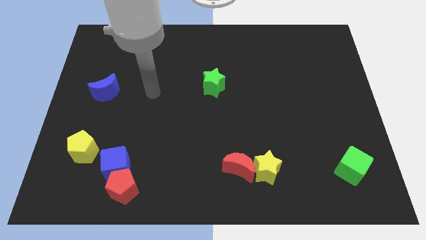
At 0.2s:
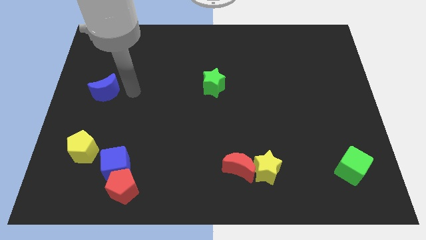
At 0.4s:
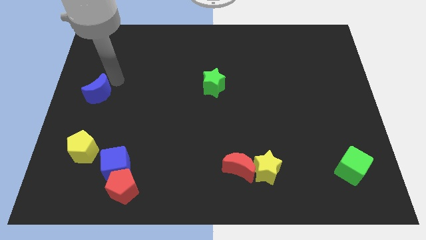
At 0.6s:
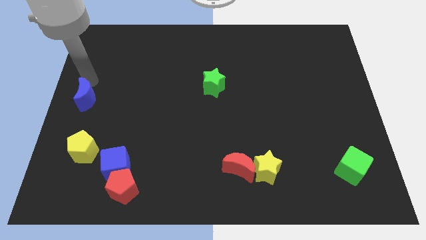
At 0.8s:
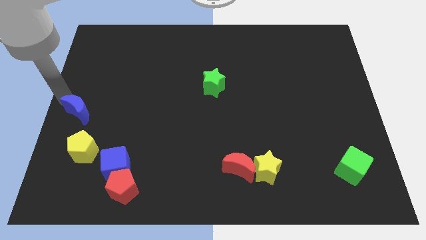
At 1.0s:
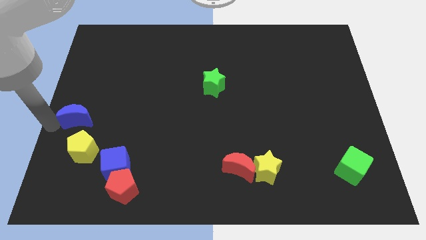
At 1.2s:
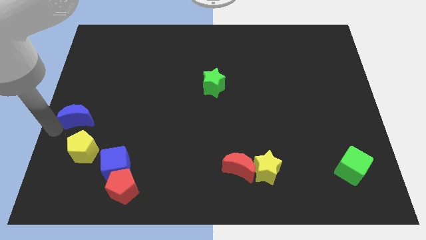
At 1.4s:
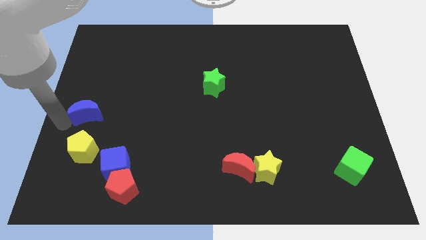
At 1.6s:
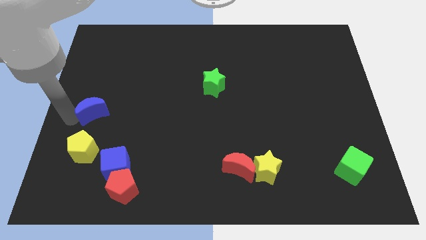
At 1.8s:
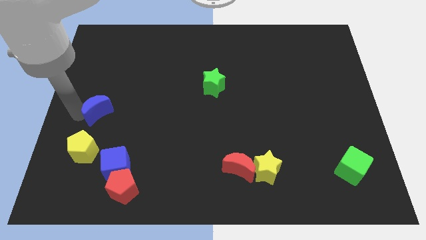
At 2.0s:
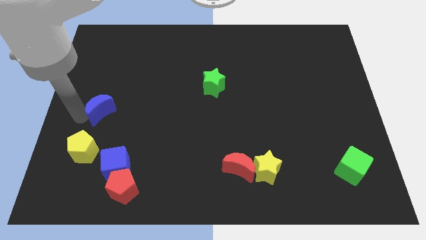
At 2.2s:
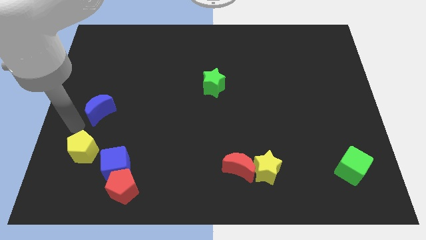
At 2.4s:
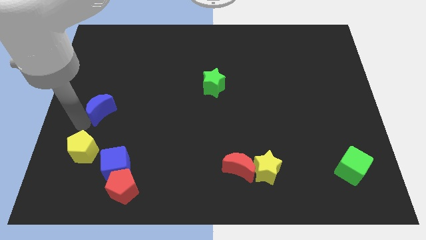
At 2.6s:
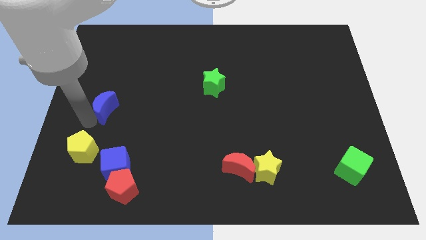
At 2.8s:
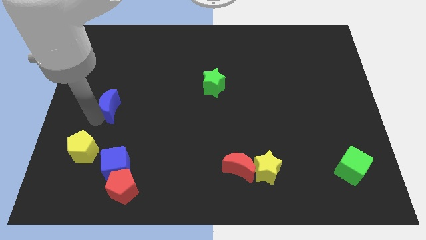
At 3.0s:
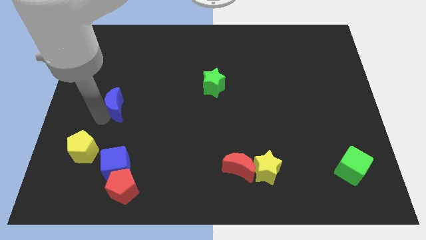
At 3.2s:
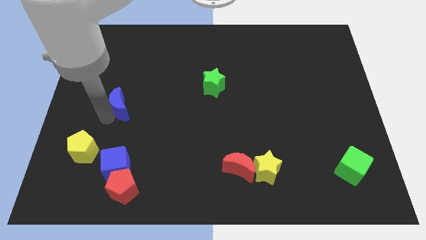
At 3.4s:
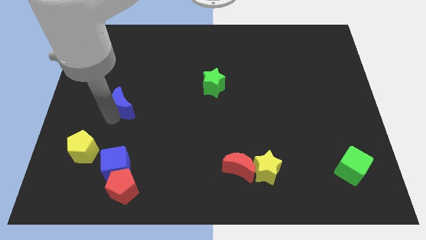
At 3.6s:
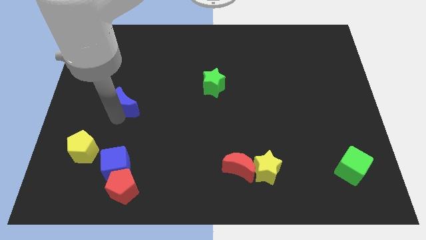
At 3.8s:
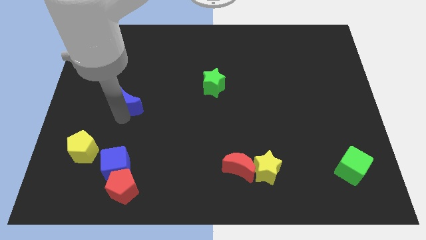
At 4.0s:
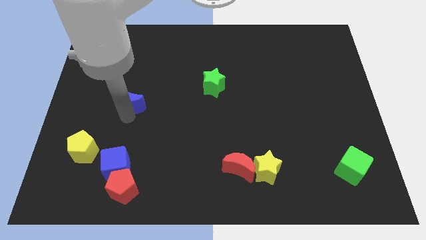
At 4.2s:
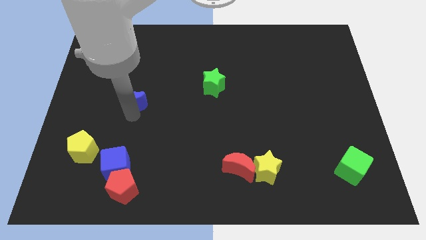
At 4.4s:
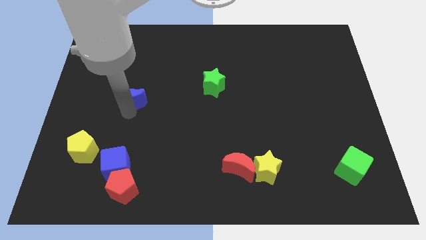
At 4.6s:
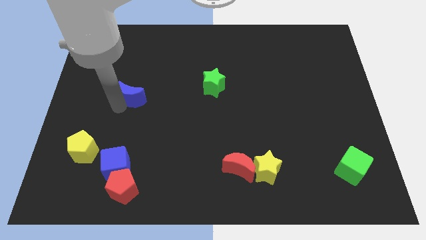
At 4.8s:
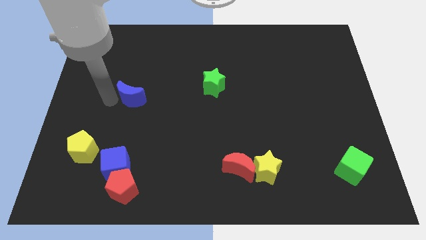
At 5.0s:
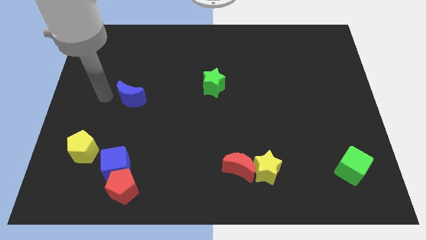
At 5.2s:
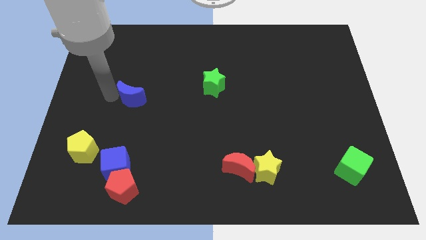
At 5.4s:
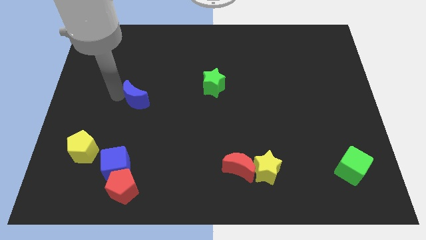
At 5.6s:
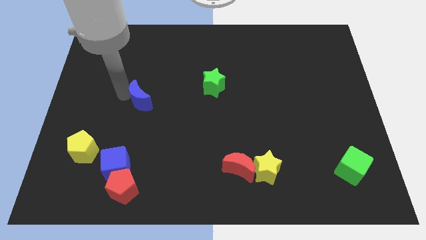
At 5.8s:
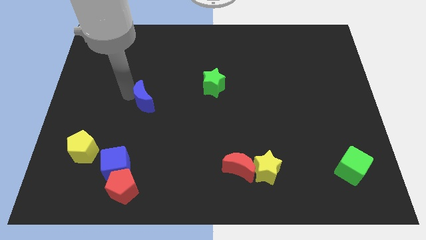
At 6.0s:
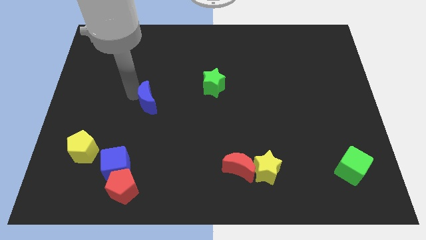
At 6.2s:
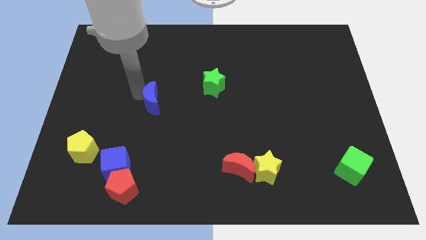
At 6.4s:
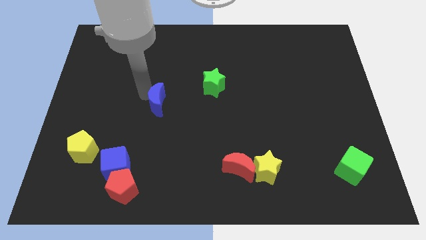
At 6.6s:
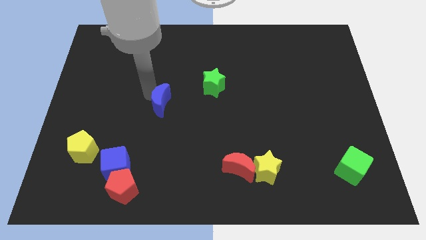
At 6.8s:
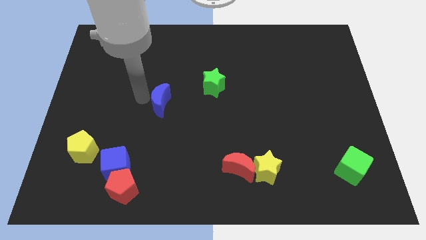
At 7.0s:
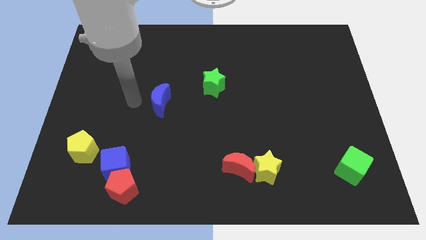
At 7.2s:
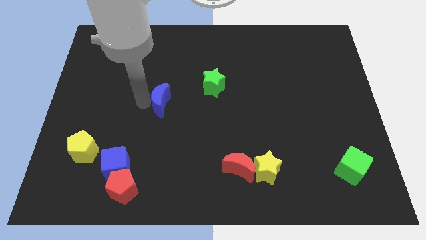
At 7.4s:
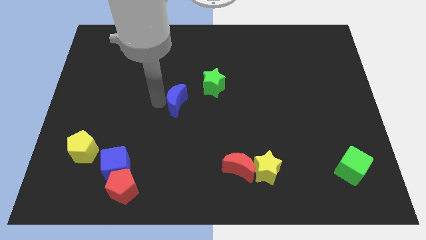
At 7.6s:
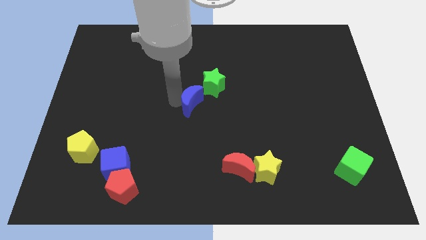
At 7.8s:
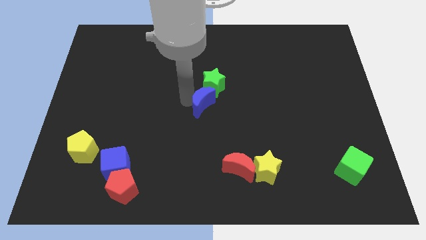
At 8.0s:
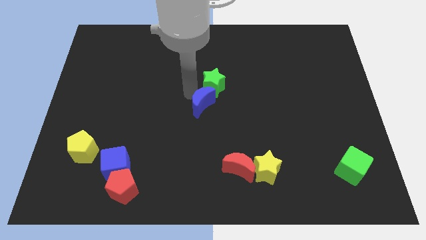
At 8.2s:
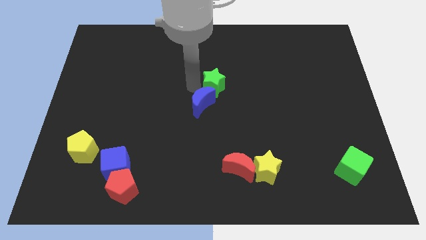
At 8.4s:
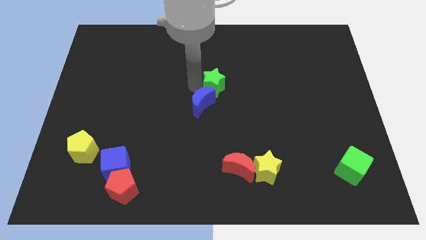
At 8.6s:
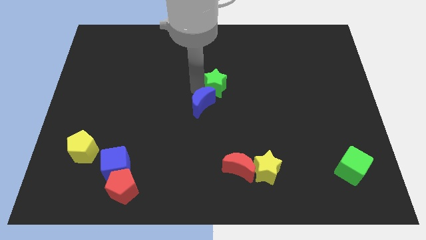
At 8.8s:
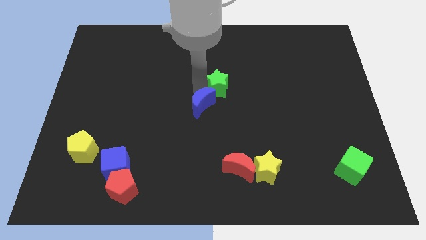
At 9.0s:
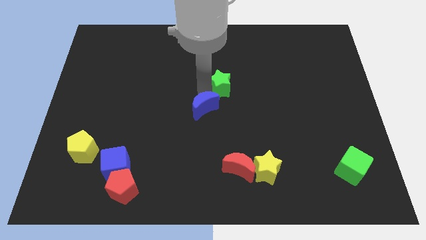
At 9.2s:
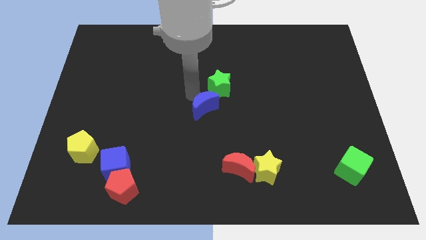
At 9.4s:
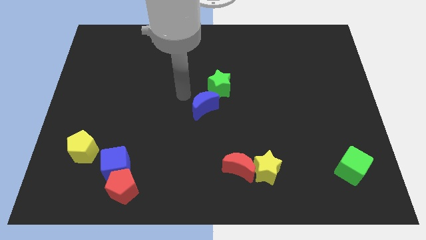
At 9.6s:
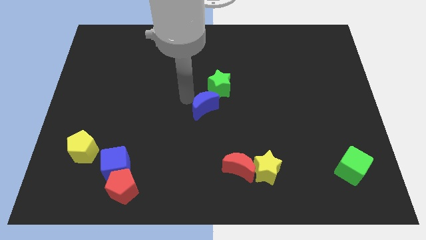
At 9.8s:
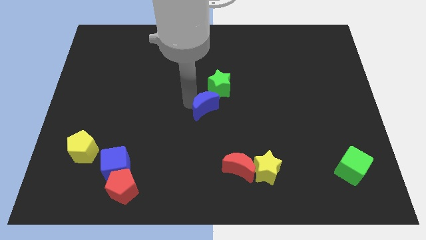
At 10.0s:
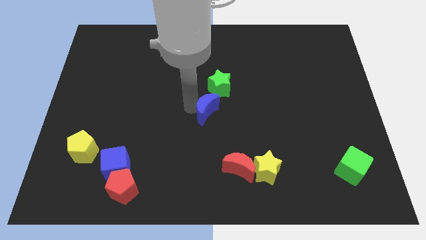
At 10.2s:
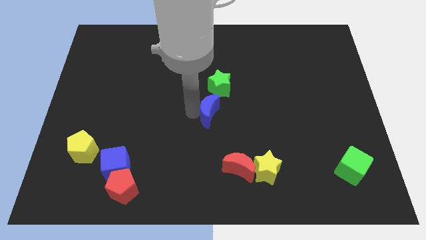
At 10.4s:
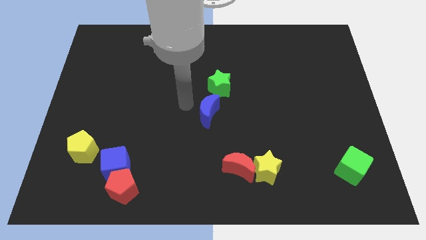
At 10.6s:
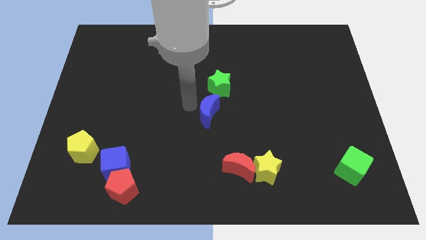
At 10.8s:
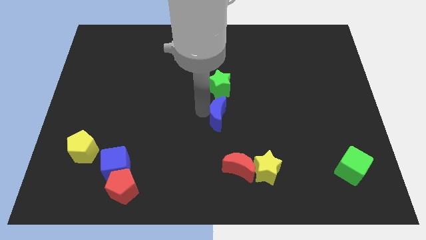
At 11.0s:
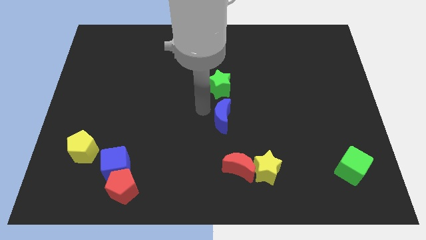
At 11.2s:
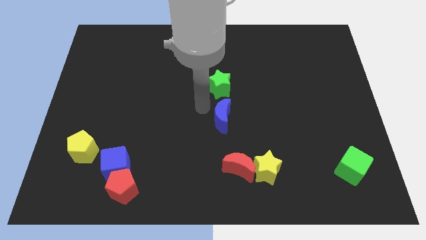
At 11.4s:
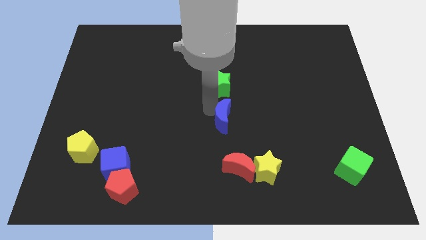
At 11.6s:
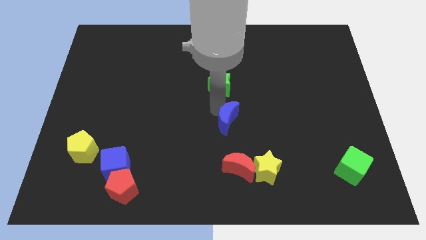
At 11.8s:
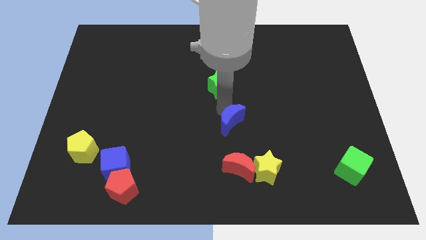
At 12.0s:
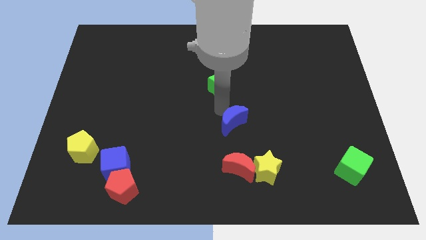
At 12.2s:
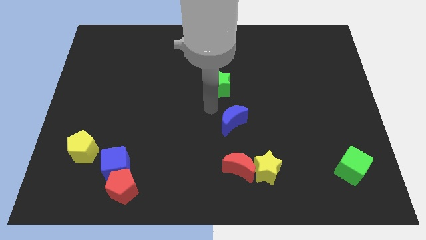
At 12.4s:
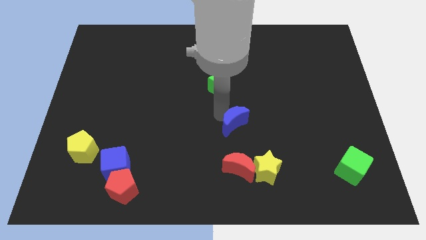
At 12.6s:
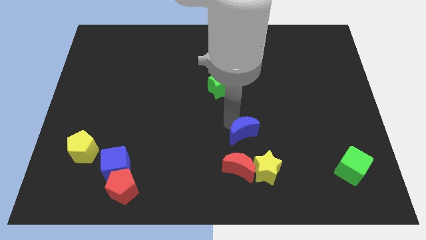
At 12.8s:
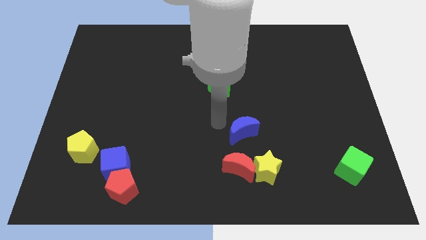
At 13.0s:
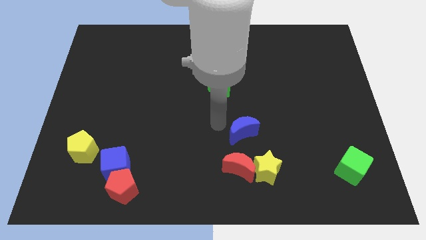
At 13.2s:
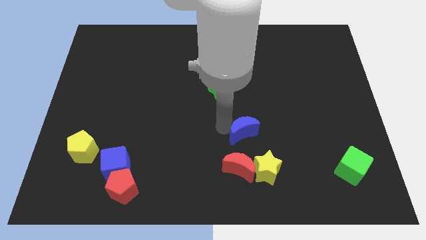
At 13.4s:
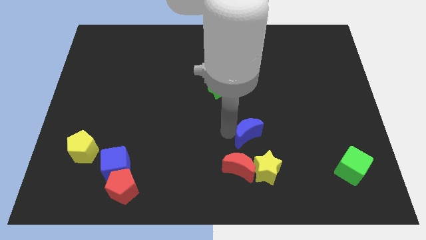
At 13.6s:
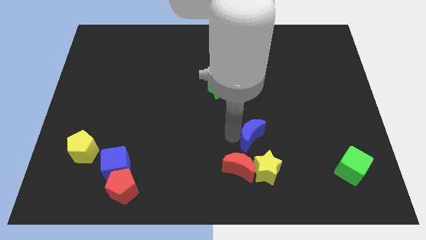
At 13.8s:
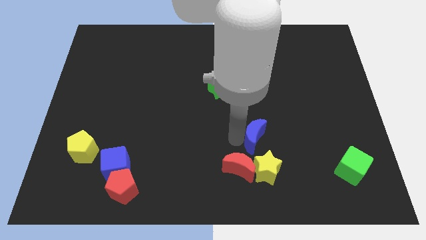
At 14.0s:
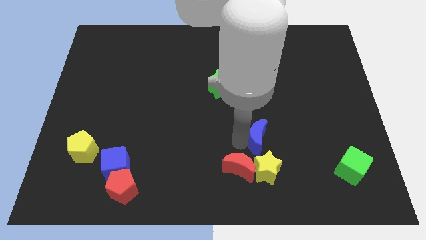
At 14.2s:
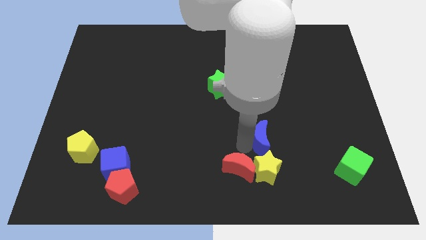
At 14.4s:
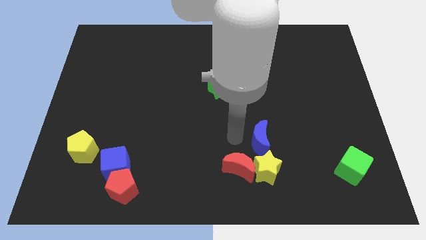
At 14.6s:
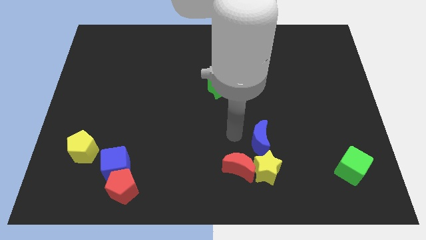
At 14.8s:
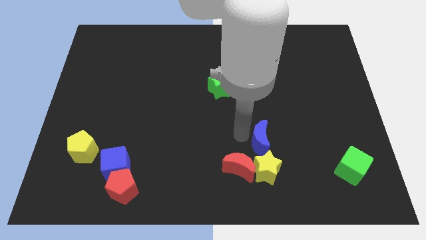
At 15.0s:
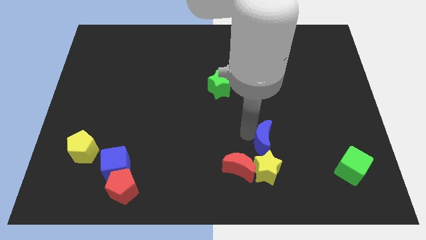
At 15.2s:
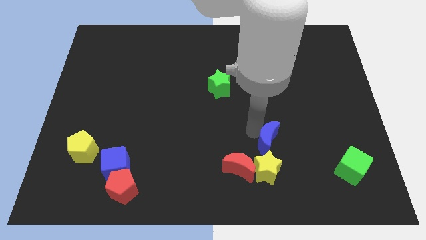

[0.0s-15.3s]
move the blue moon to the top right side of the yellow star
